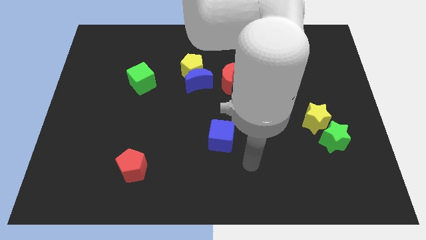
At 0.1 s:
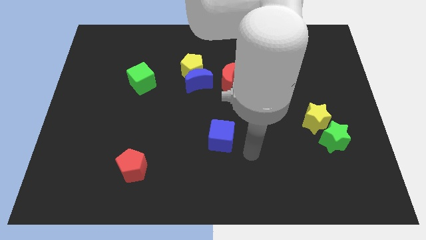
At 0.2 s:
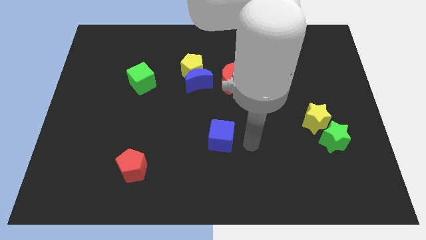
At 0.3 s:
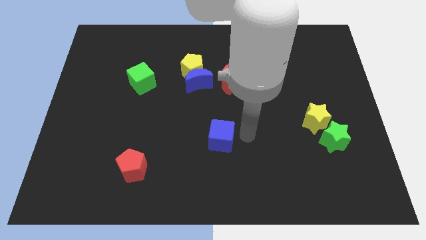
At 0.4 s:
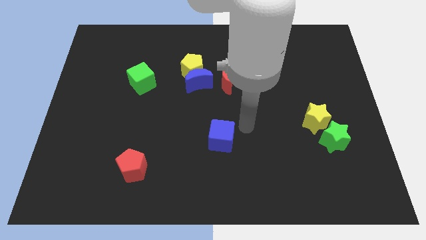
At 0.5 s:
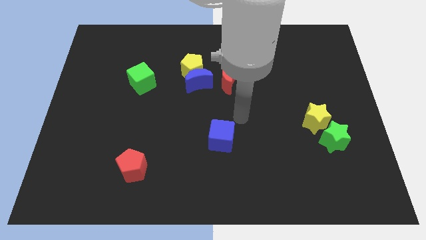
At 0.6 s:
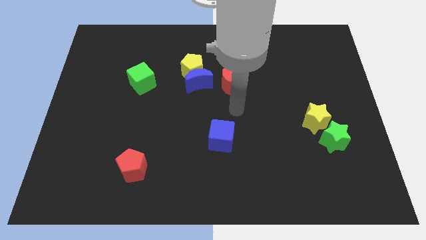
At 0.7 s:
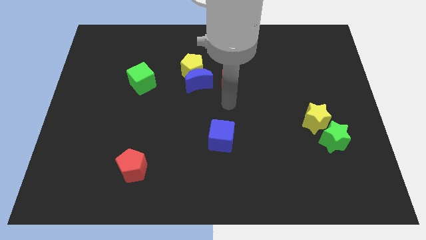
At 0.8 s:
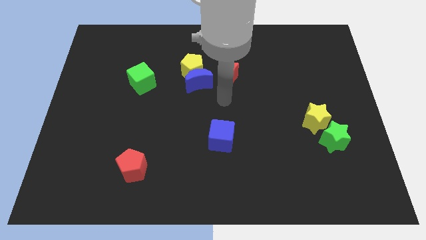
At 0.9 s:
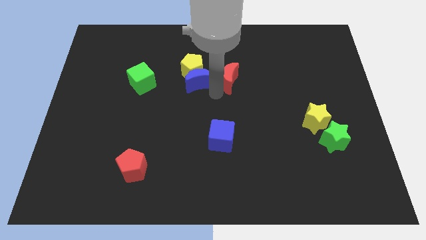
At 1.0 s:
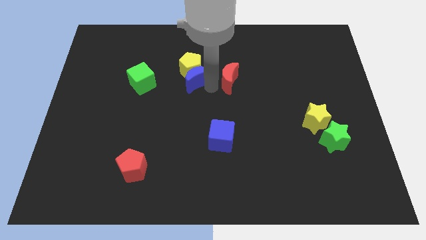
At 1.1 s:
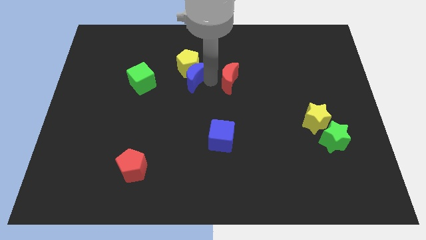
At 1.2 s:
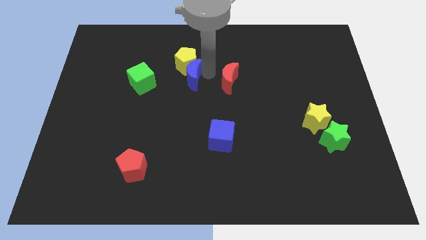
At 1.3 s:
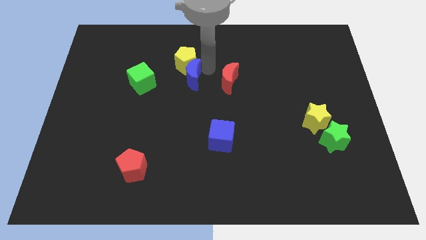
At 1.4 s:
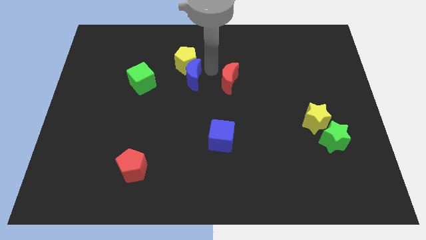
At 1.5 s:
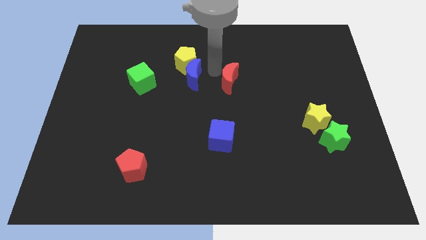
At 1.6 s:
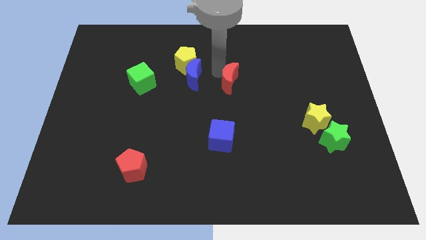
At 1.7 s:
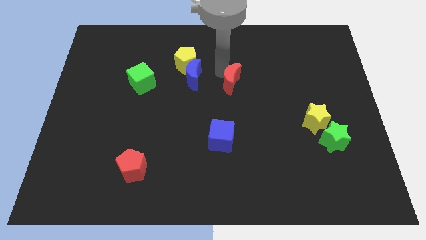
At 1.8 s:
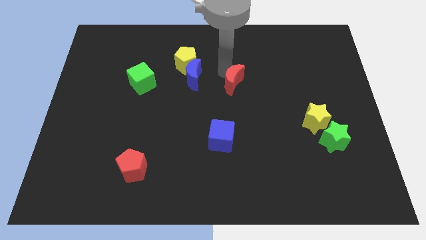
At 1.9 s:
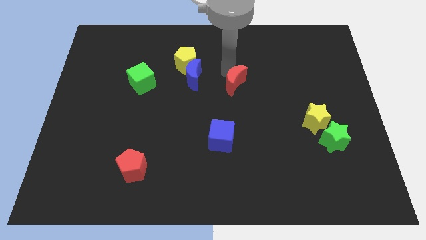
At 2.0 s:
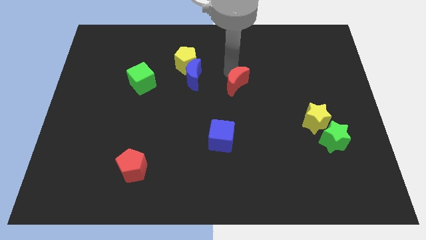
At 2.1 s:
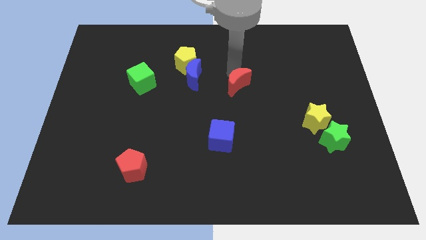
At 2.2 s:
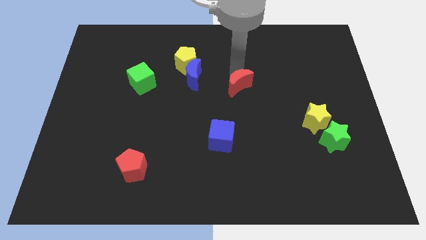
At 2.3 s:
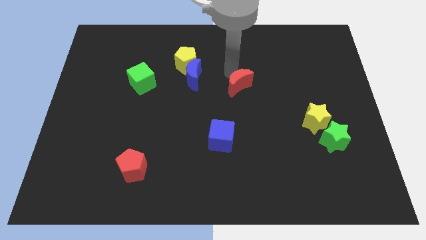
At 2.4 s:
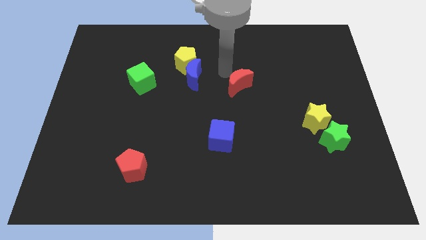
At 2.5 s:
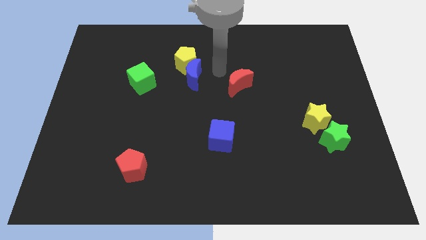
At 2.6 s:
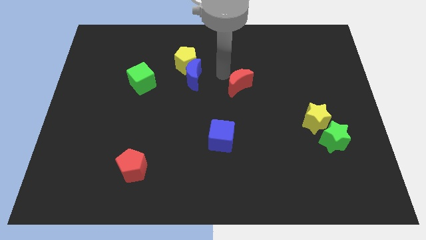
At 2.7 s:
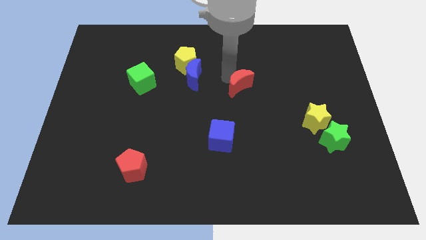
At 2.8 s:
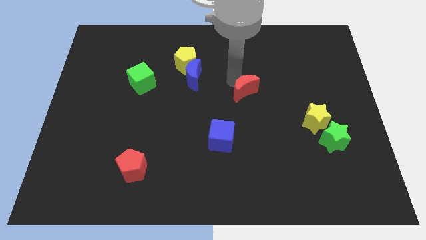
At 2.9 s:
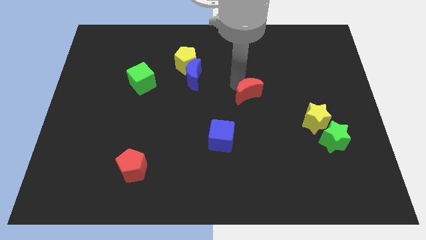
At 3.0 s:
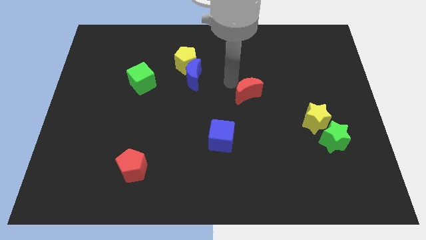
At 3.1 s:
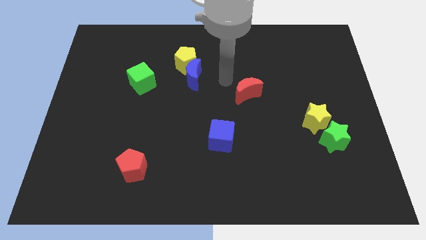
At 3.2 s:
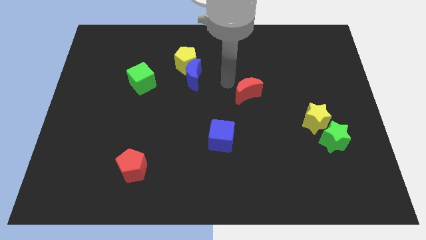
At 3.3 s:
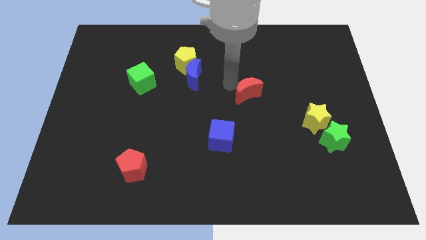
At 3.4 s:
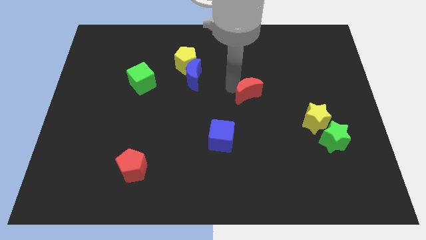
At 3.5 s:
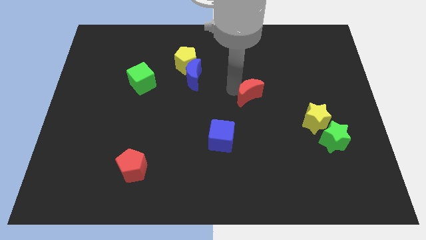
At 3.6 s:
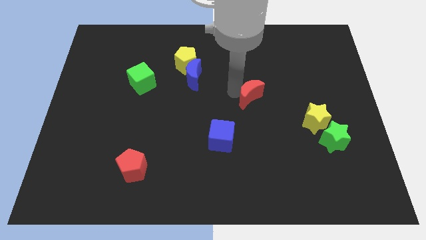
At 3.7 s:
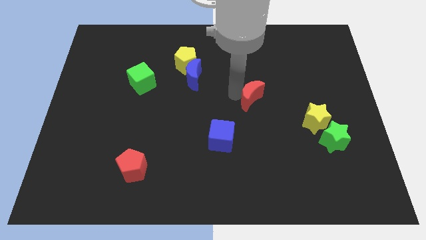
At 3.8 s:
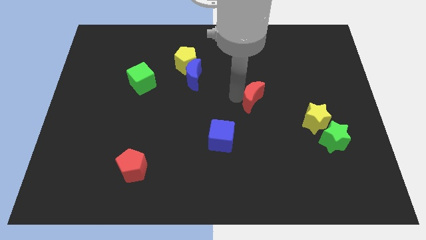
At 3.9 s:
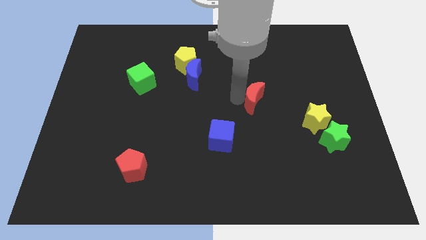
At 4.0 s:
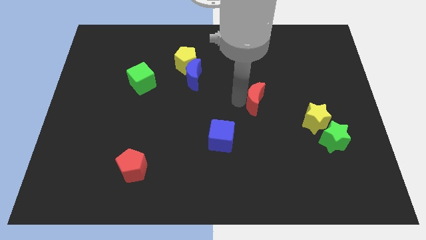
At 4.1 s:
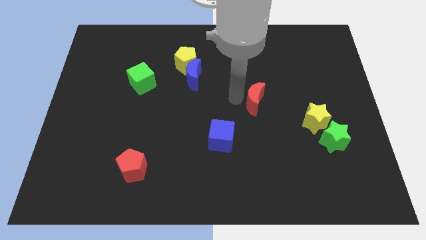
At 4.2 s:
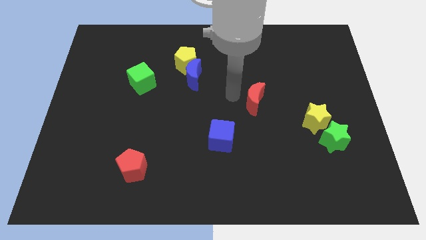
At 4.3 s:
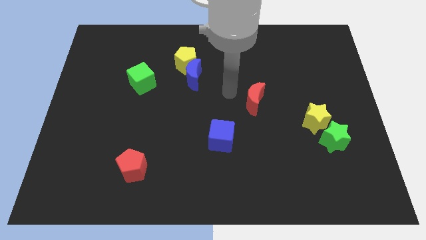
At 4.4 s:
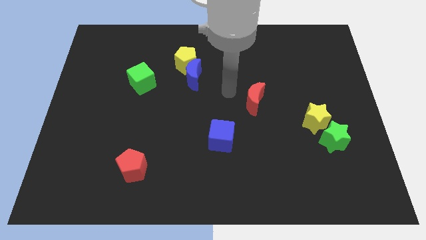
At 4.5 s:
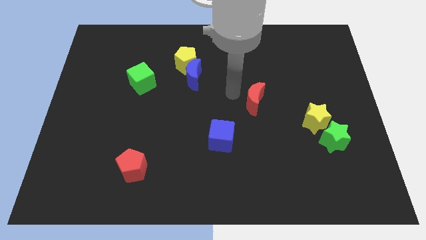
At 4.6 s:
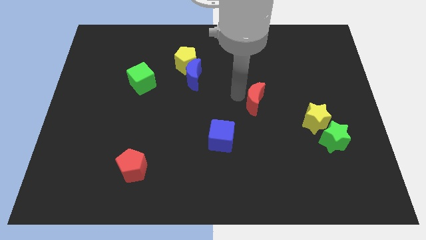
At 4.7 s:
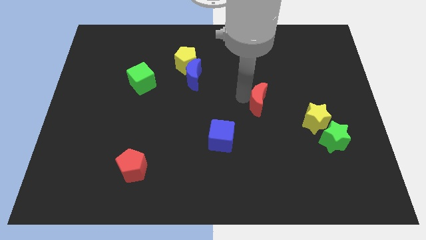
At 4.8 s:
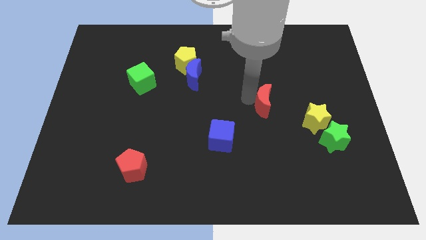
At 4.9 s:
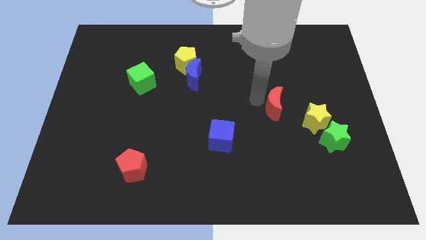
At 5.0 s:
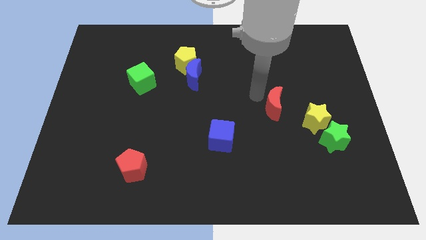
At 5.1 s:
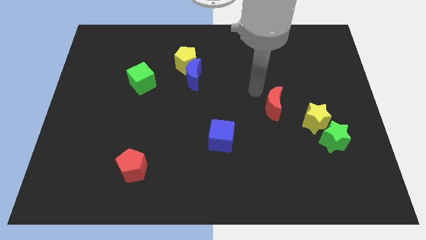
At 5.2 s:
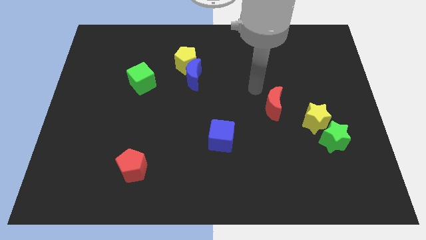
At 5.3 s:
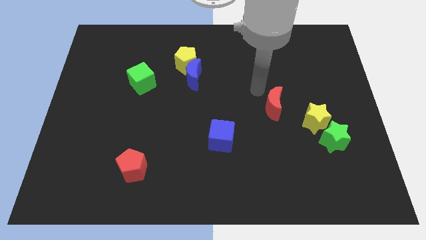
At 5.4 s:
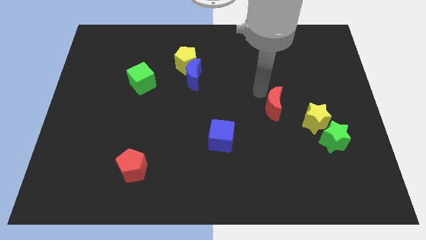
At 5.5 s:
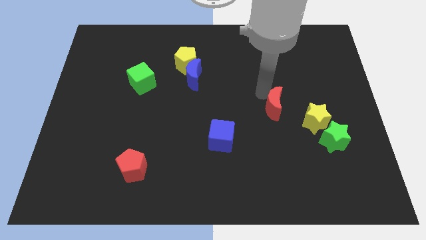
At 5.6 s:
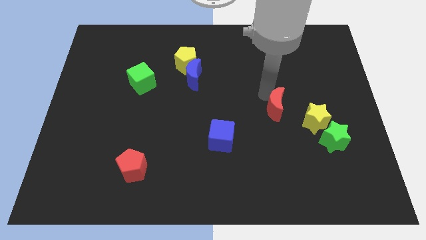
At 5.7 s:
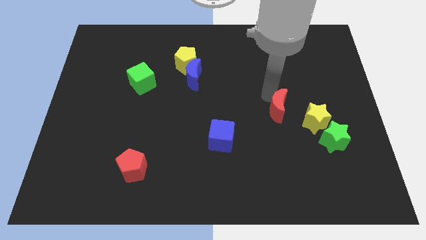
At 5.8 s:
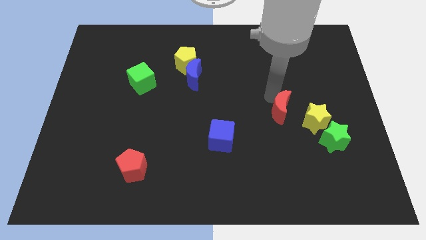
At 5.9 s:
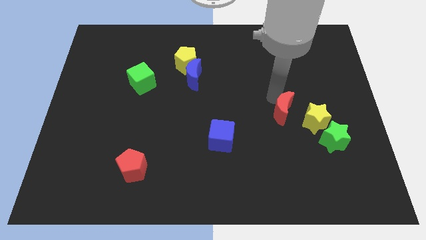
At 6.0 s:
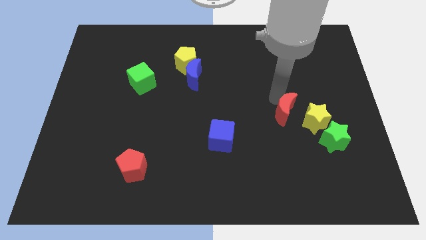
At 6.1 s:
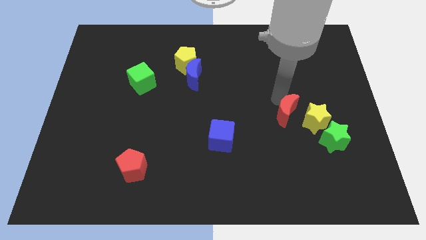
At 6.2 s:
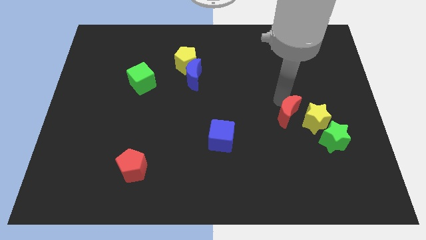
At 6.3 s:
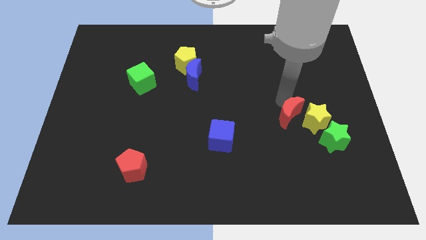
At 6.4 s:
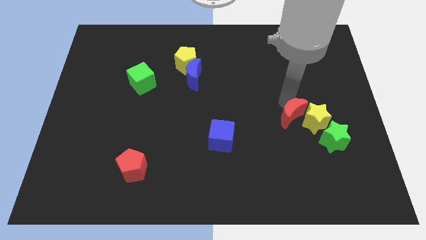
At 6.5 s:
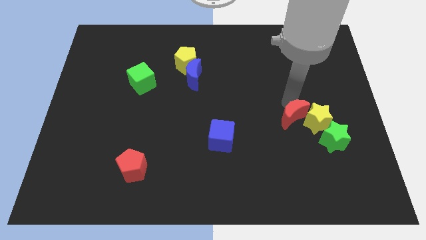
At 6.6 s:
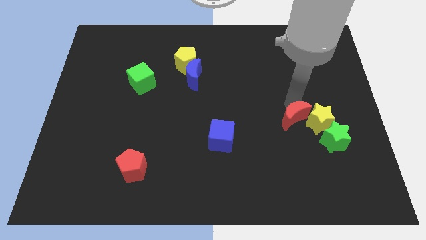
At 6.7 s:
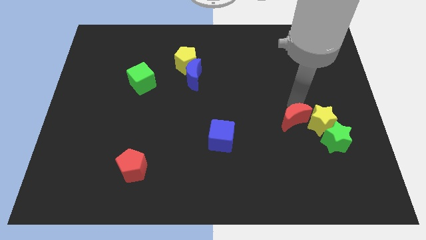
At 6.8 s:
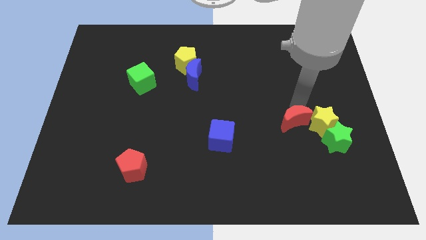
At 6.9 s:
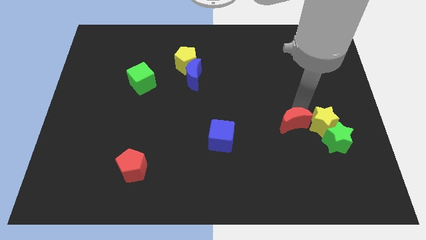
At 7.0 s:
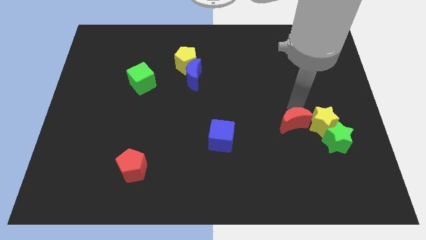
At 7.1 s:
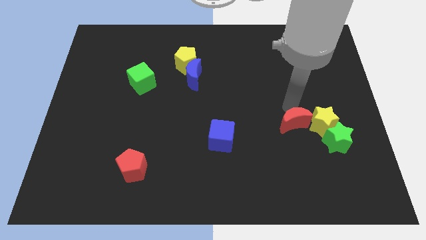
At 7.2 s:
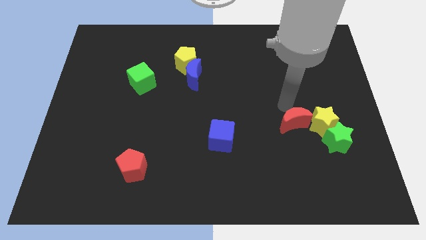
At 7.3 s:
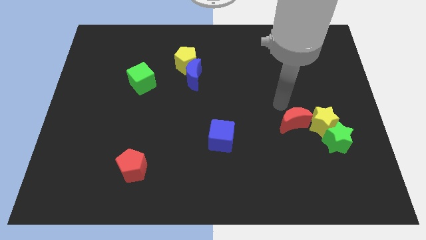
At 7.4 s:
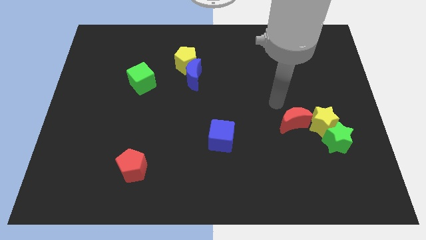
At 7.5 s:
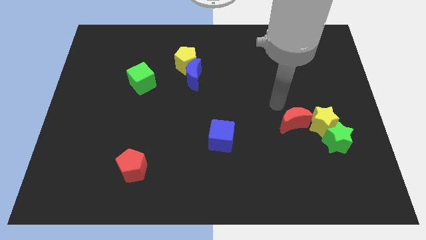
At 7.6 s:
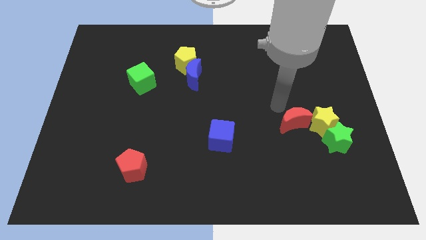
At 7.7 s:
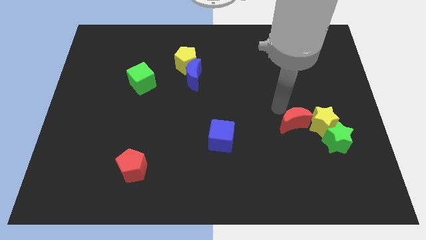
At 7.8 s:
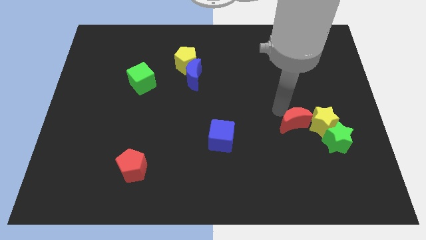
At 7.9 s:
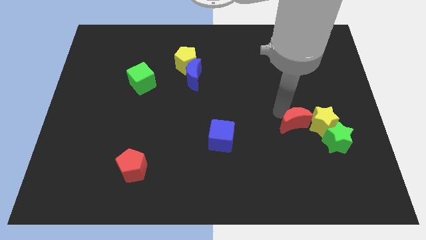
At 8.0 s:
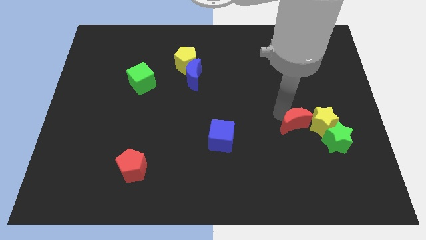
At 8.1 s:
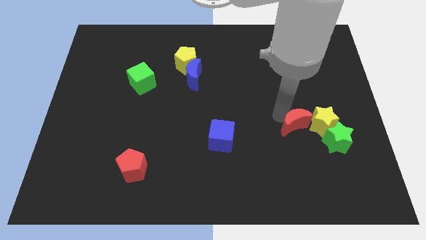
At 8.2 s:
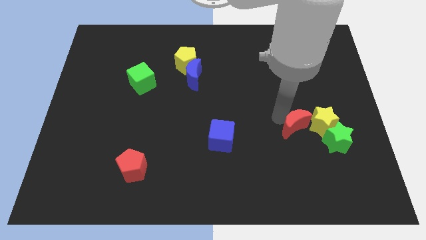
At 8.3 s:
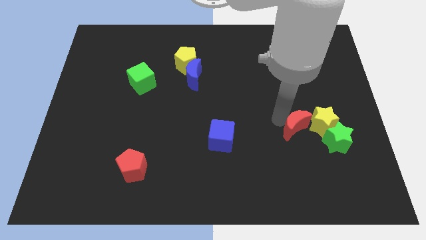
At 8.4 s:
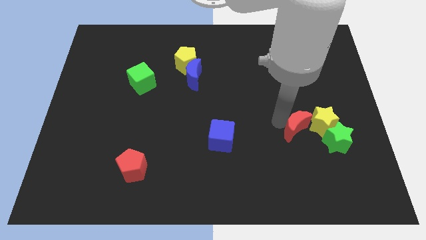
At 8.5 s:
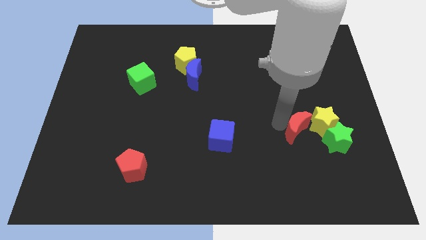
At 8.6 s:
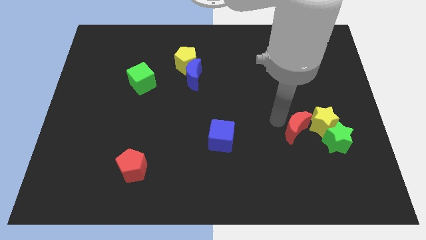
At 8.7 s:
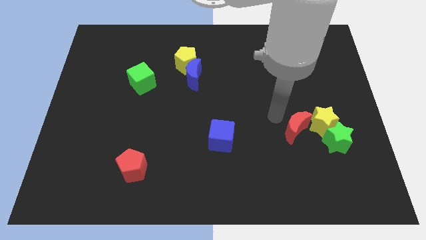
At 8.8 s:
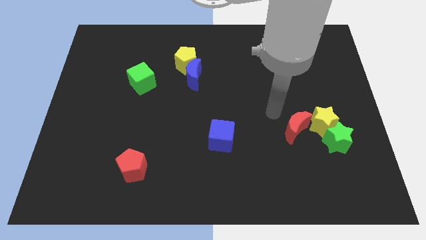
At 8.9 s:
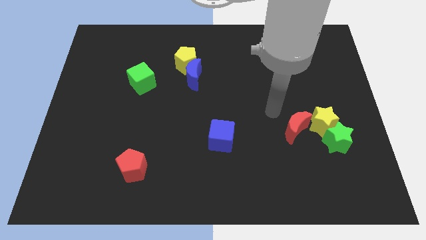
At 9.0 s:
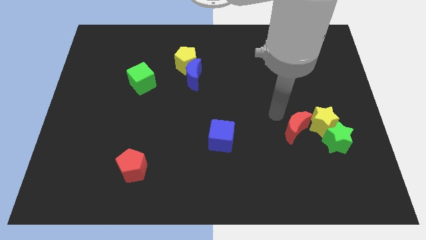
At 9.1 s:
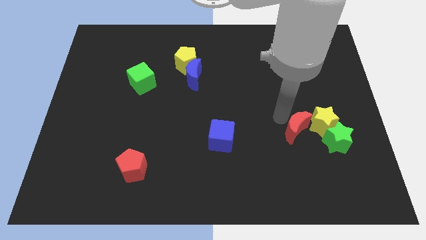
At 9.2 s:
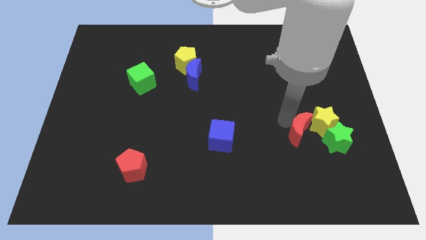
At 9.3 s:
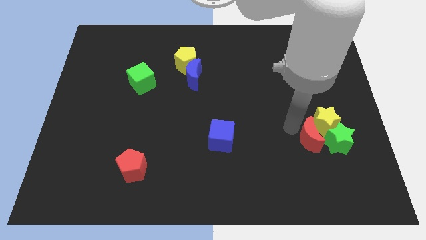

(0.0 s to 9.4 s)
move the red moon next to the green star
